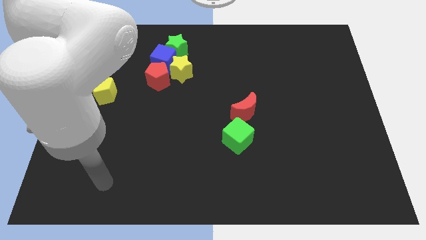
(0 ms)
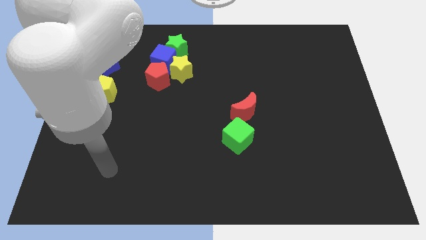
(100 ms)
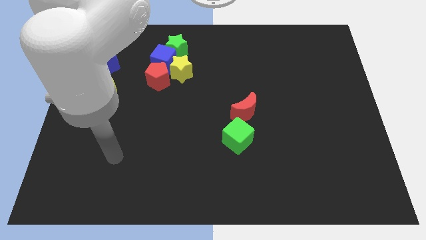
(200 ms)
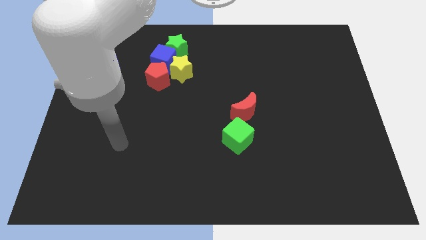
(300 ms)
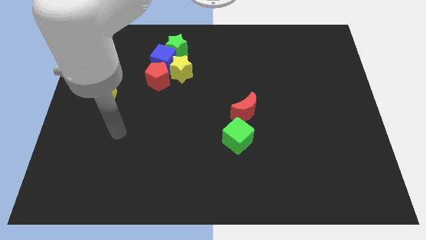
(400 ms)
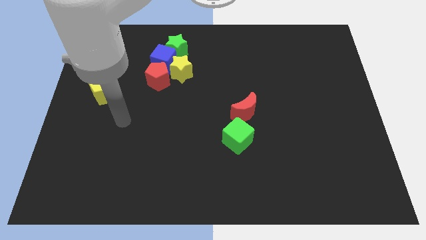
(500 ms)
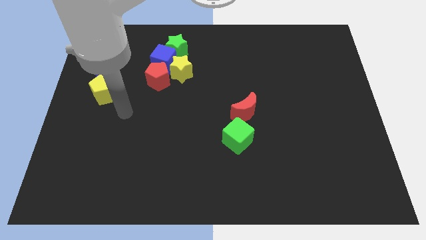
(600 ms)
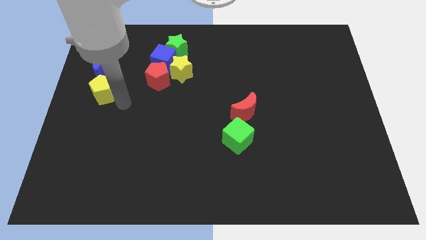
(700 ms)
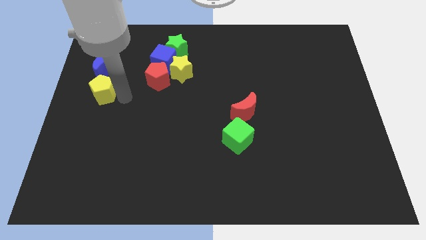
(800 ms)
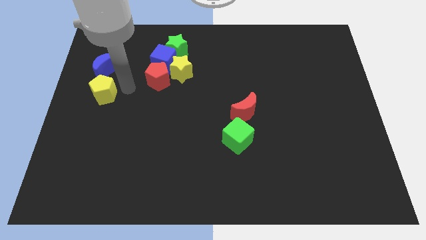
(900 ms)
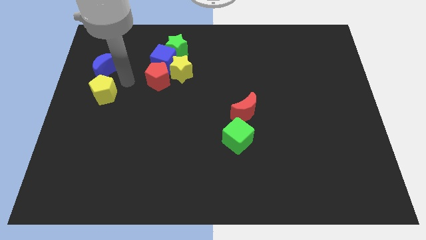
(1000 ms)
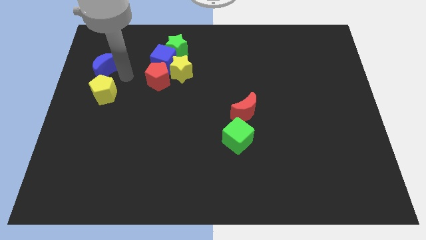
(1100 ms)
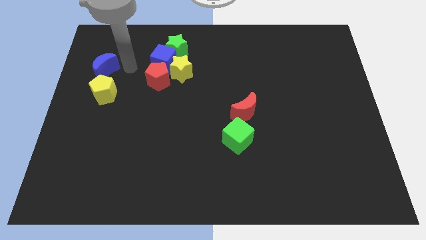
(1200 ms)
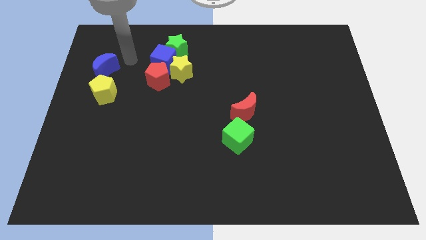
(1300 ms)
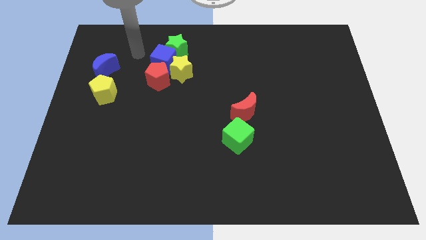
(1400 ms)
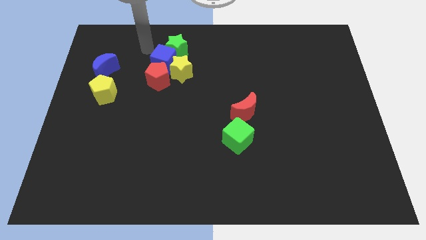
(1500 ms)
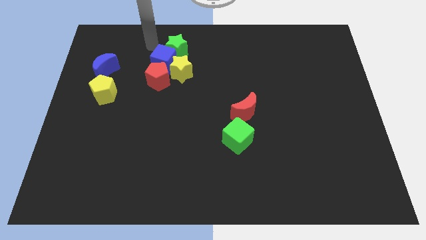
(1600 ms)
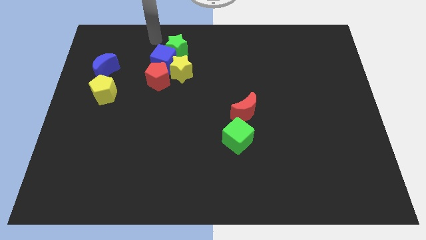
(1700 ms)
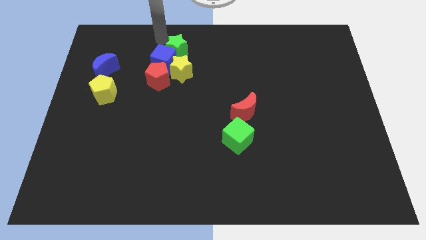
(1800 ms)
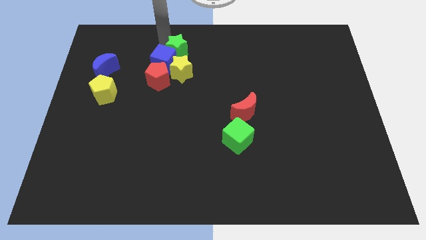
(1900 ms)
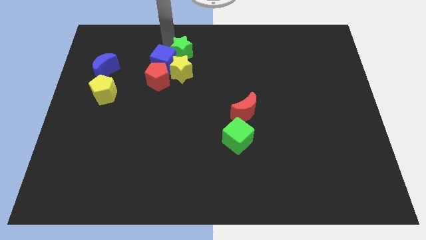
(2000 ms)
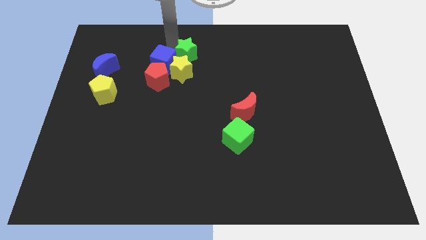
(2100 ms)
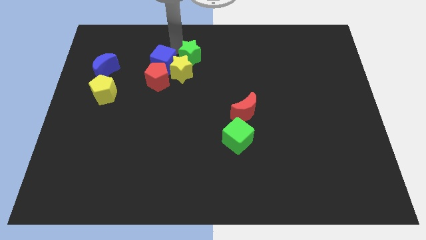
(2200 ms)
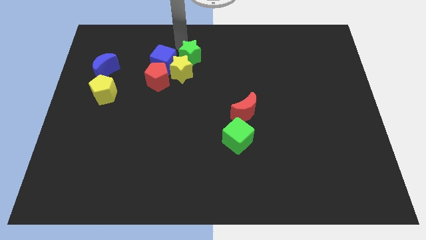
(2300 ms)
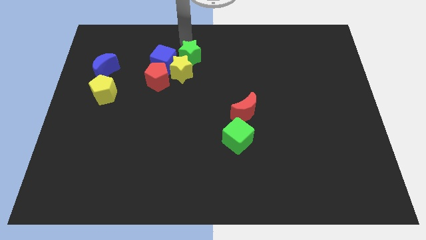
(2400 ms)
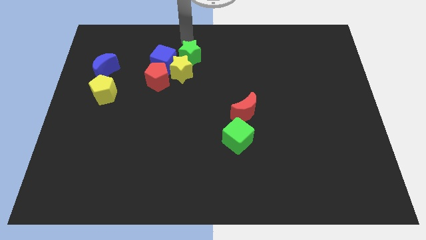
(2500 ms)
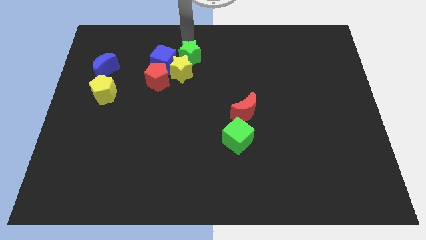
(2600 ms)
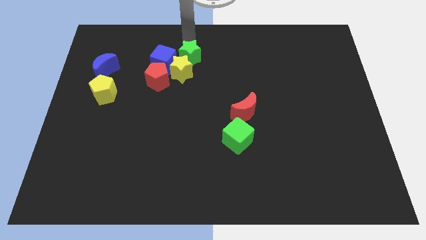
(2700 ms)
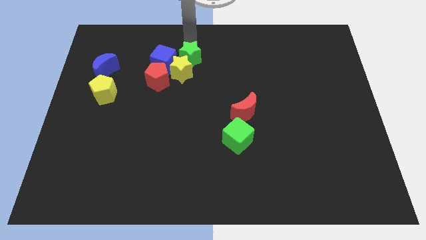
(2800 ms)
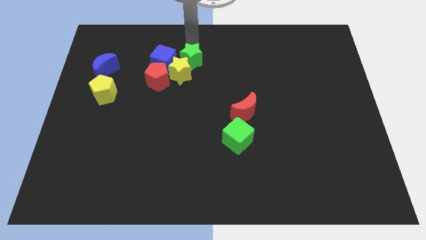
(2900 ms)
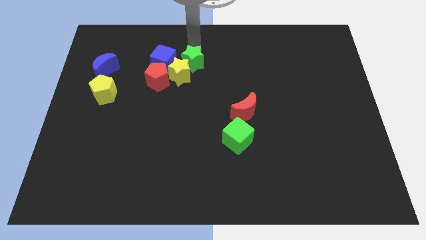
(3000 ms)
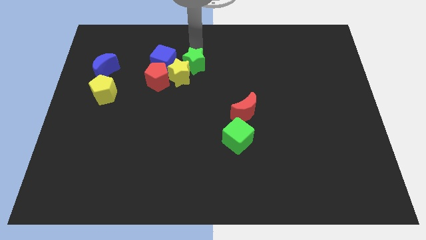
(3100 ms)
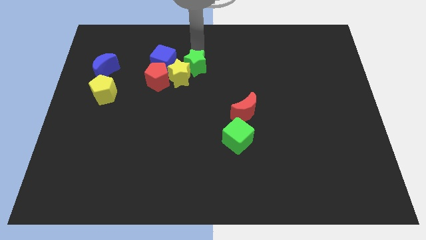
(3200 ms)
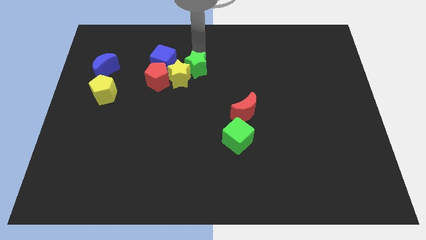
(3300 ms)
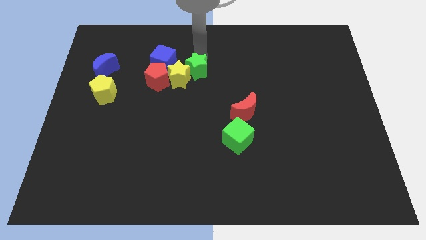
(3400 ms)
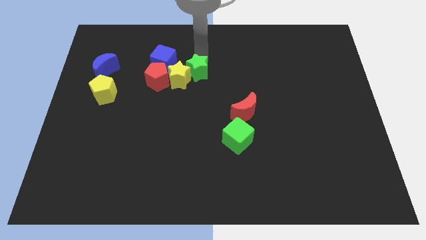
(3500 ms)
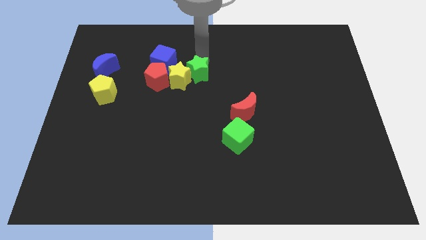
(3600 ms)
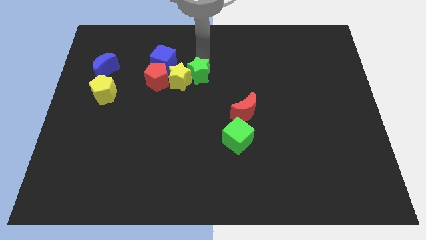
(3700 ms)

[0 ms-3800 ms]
move the green star somewhat down

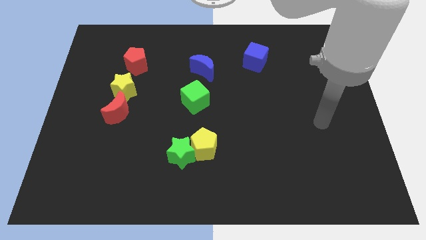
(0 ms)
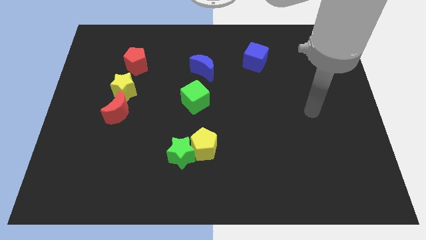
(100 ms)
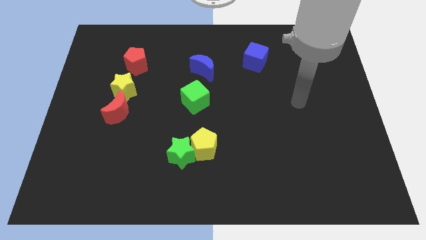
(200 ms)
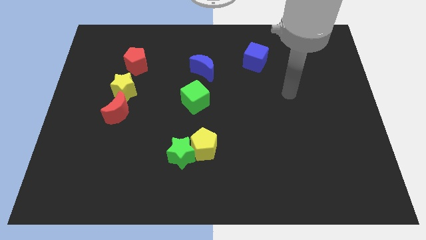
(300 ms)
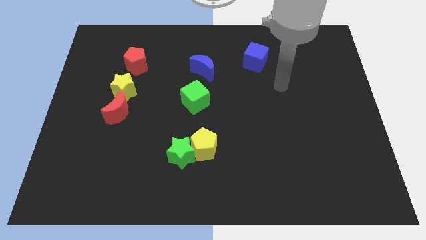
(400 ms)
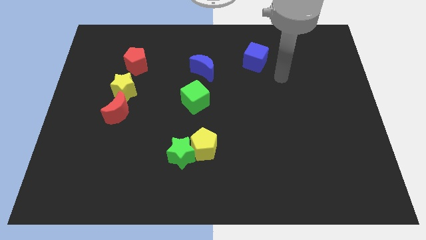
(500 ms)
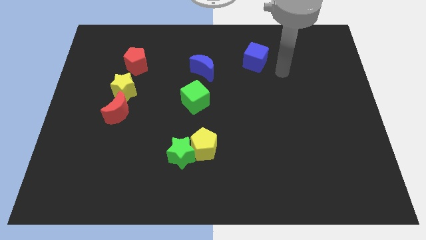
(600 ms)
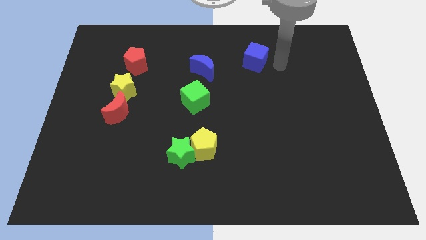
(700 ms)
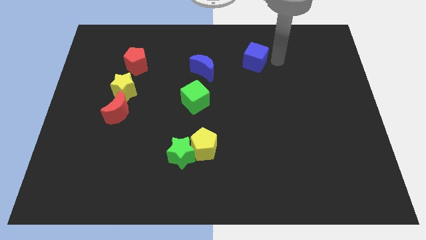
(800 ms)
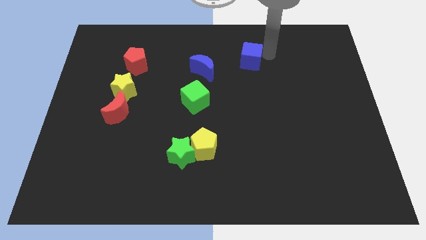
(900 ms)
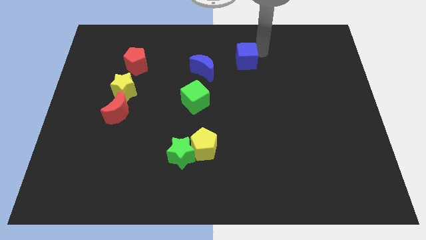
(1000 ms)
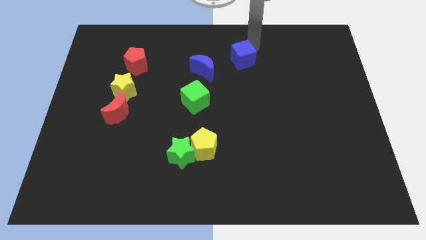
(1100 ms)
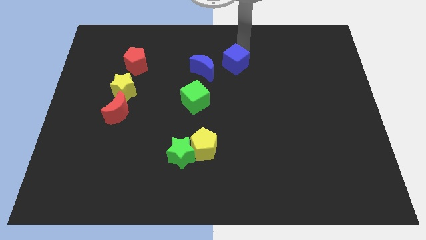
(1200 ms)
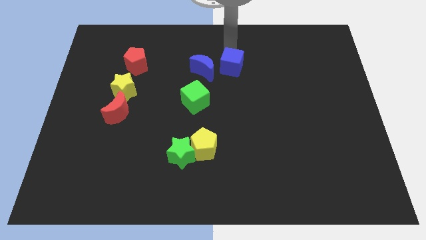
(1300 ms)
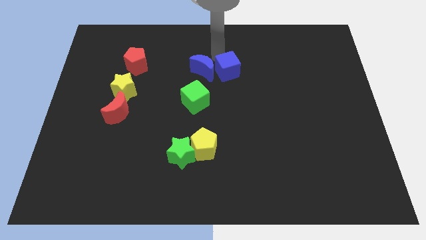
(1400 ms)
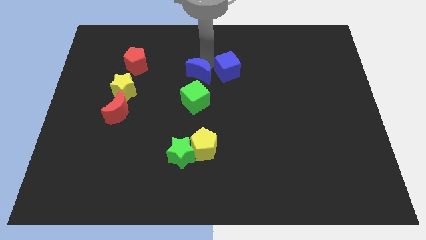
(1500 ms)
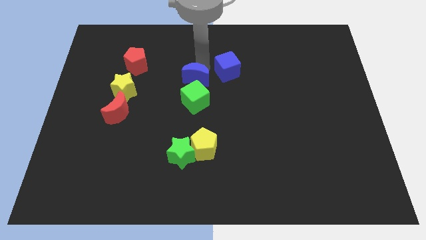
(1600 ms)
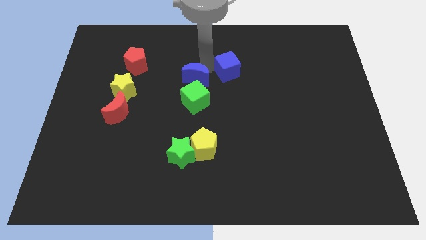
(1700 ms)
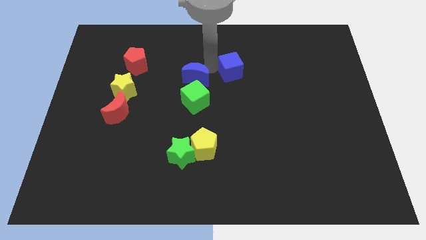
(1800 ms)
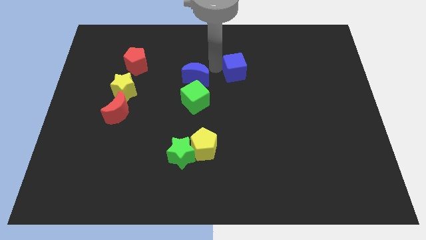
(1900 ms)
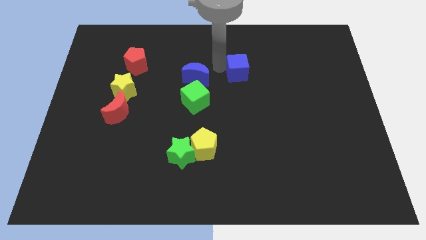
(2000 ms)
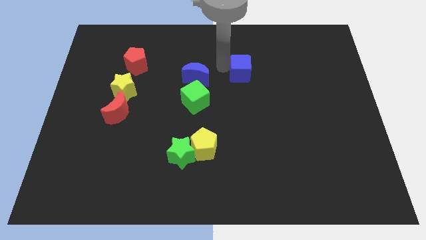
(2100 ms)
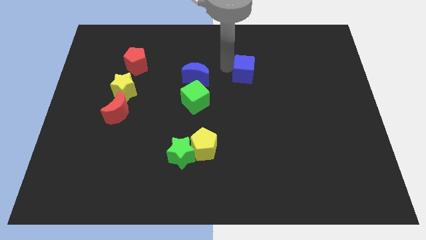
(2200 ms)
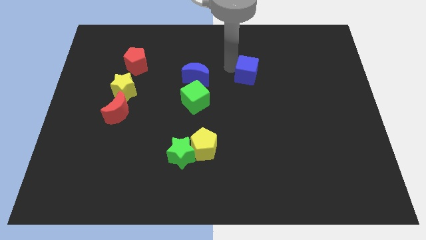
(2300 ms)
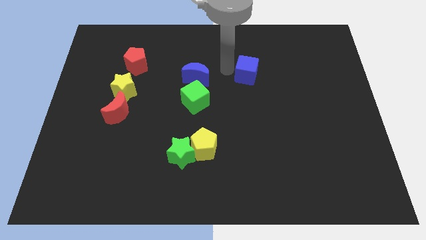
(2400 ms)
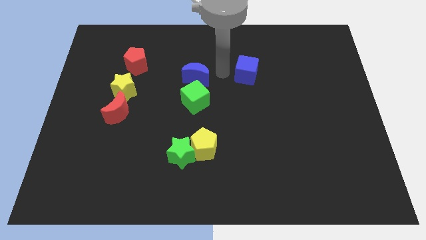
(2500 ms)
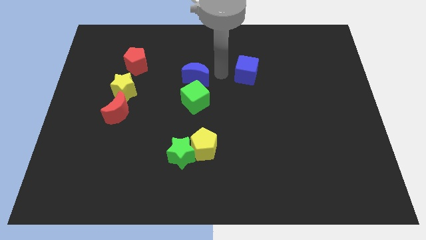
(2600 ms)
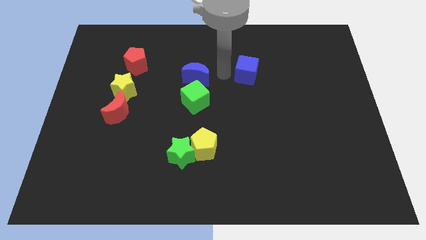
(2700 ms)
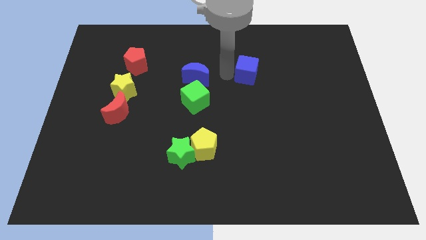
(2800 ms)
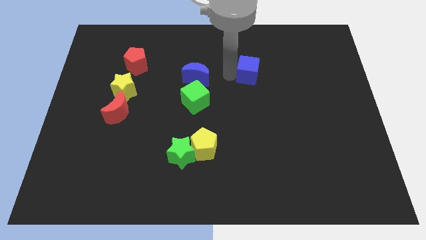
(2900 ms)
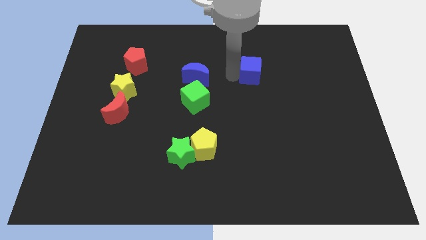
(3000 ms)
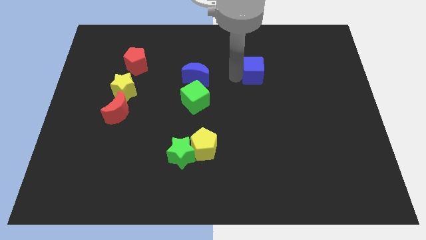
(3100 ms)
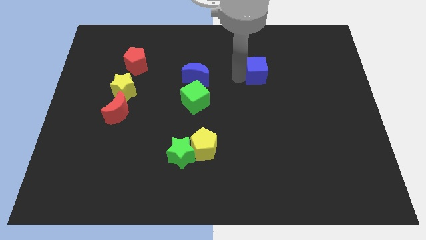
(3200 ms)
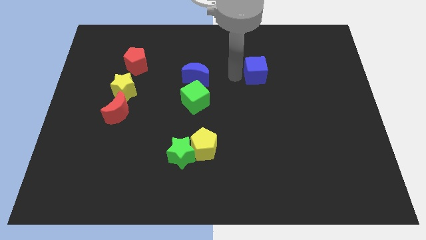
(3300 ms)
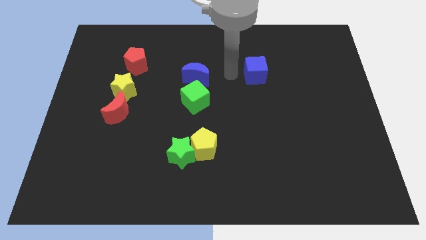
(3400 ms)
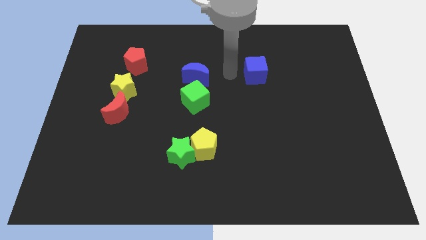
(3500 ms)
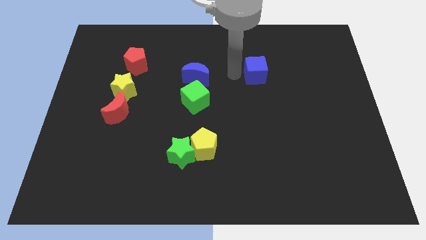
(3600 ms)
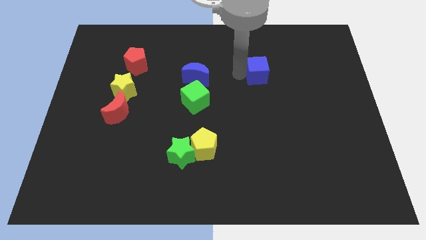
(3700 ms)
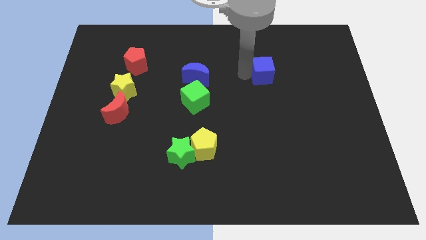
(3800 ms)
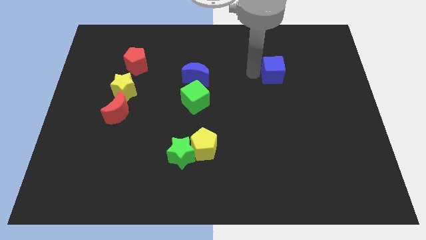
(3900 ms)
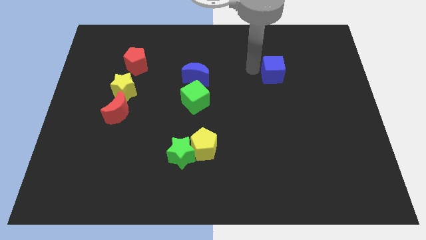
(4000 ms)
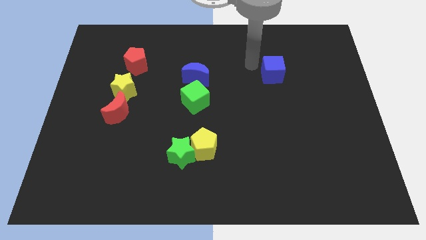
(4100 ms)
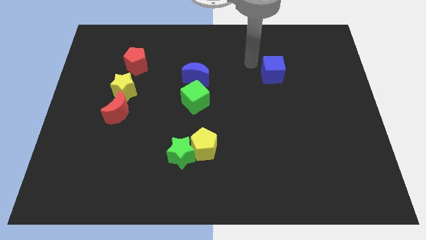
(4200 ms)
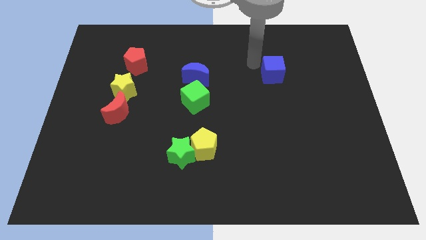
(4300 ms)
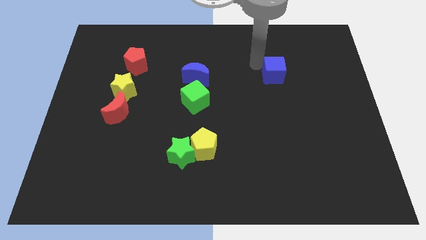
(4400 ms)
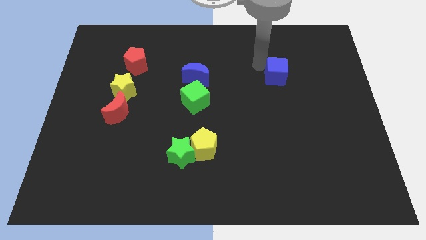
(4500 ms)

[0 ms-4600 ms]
slightly push the blue cube downwards and to the right
